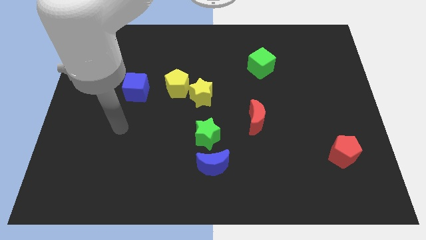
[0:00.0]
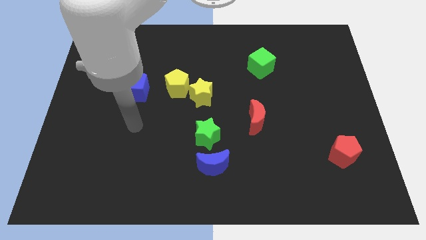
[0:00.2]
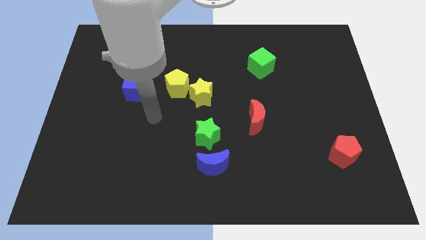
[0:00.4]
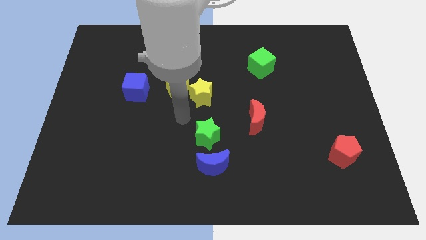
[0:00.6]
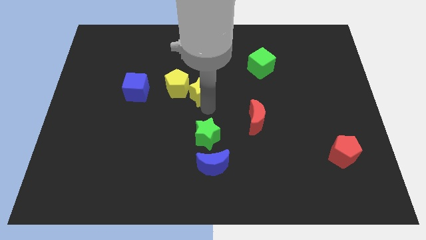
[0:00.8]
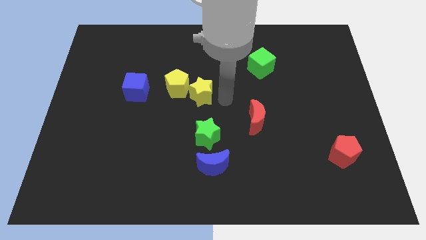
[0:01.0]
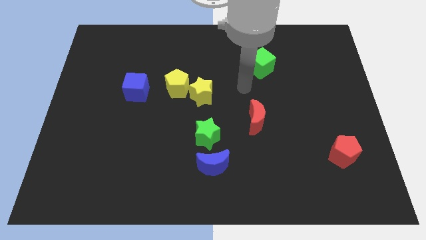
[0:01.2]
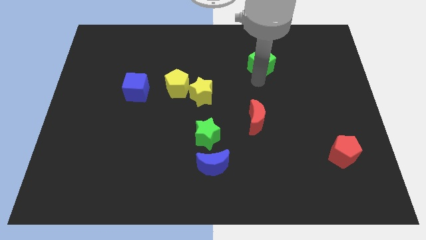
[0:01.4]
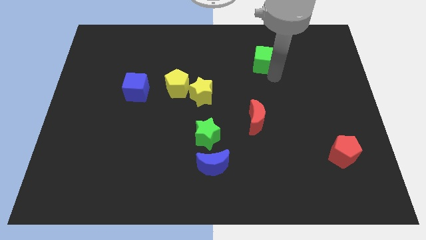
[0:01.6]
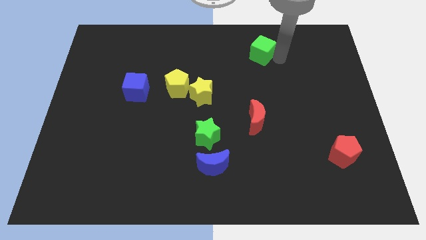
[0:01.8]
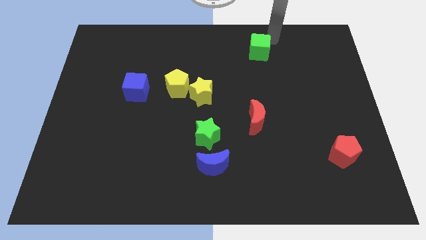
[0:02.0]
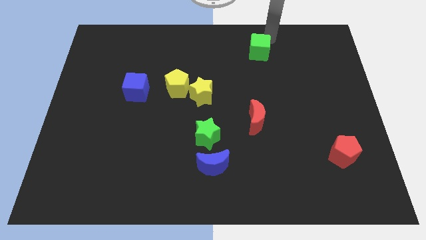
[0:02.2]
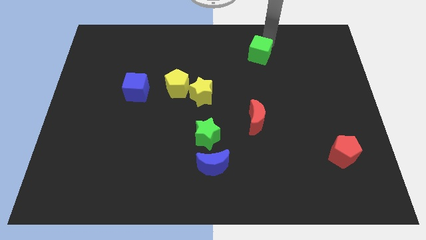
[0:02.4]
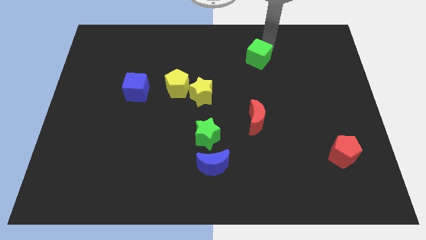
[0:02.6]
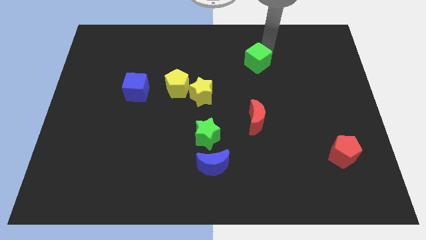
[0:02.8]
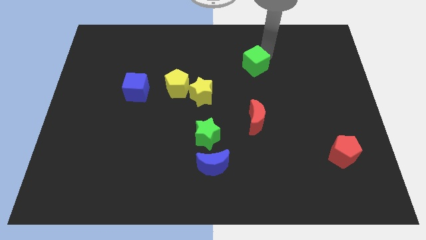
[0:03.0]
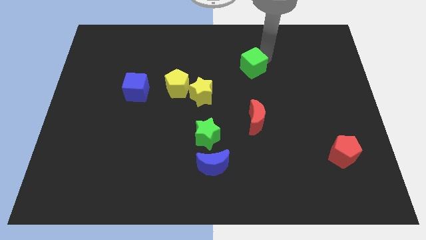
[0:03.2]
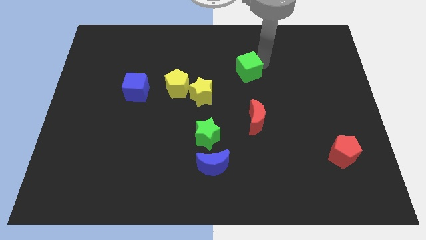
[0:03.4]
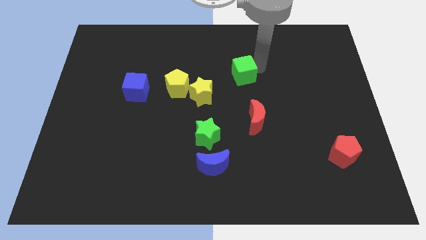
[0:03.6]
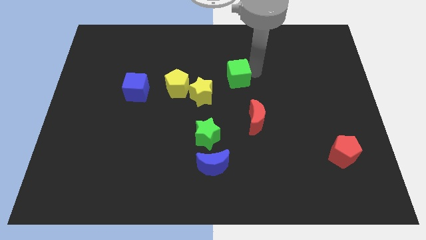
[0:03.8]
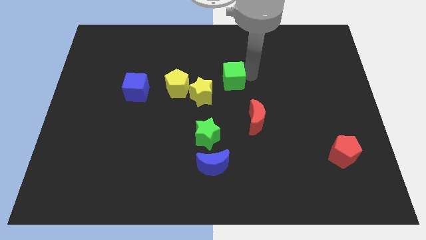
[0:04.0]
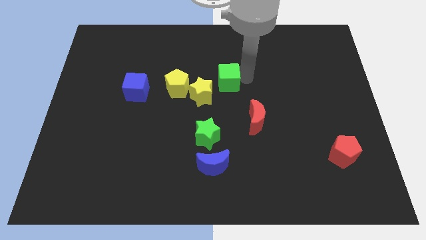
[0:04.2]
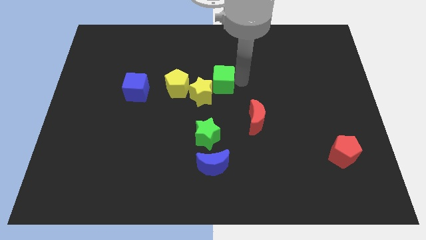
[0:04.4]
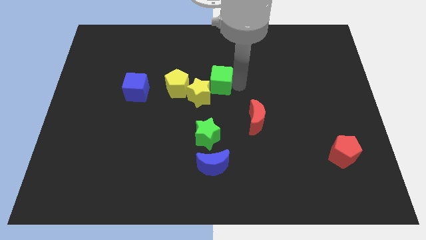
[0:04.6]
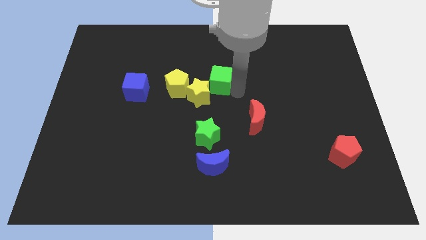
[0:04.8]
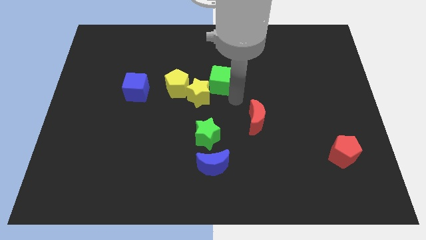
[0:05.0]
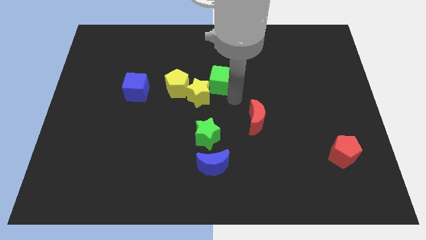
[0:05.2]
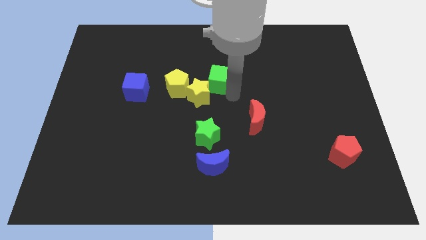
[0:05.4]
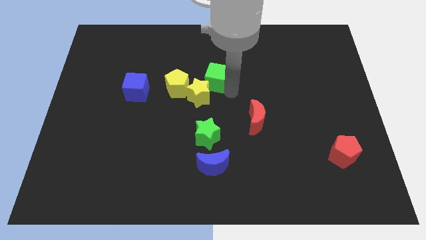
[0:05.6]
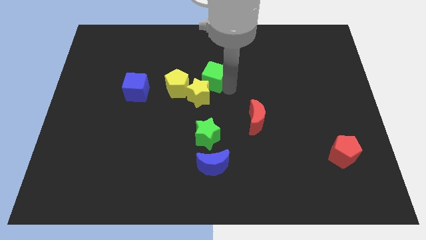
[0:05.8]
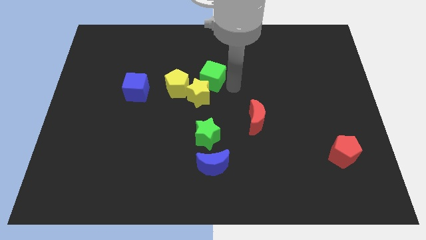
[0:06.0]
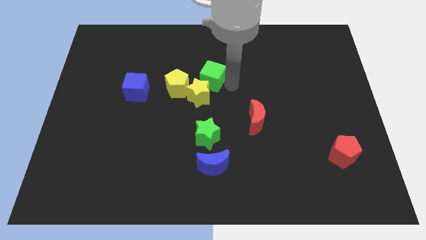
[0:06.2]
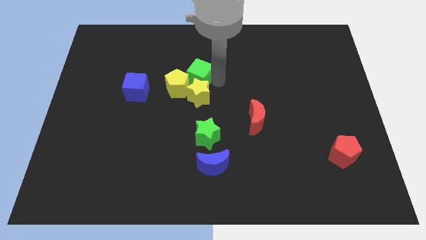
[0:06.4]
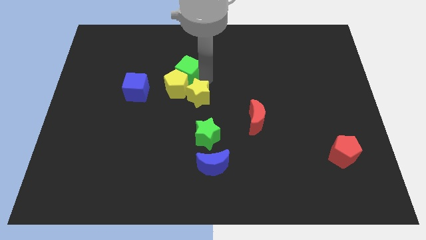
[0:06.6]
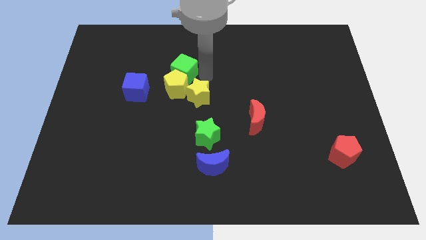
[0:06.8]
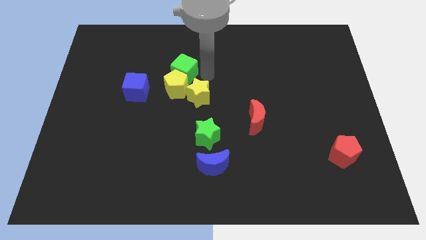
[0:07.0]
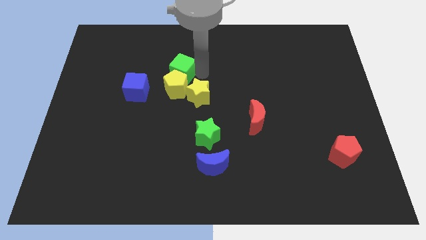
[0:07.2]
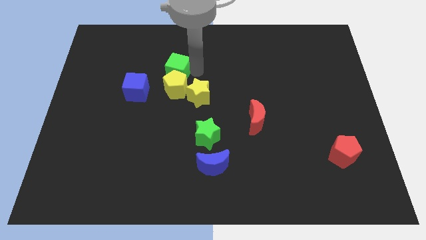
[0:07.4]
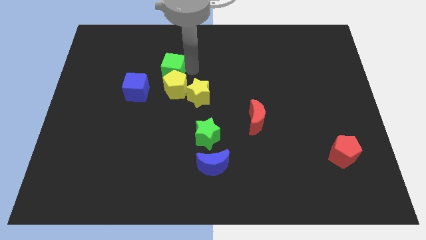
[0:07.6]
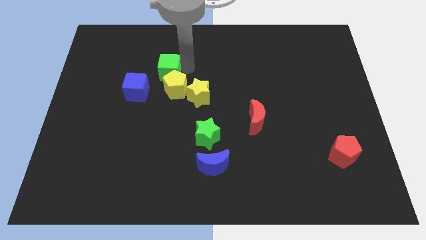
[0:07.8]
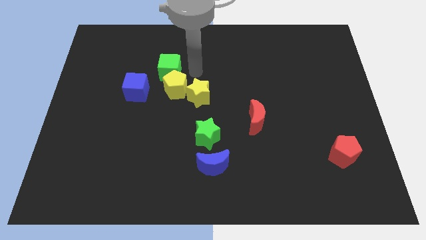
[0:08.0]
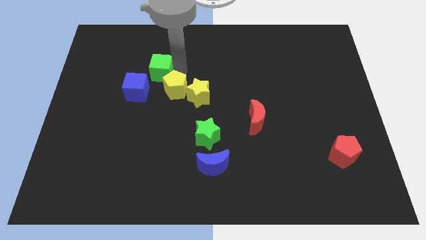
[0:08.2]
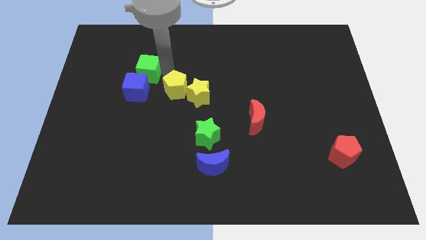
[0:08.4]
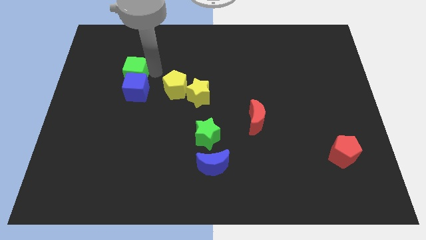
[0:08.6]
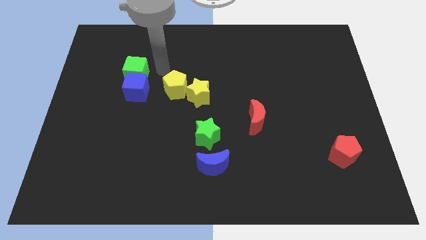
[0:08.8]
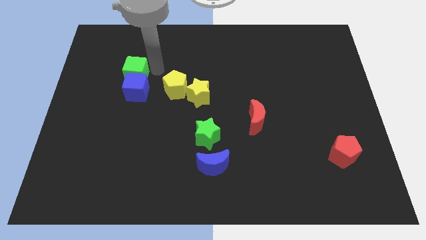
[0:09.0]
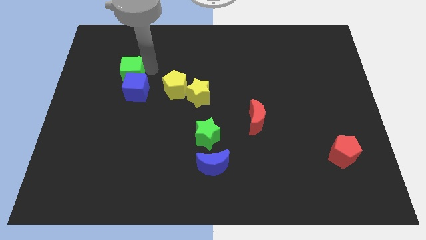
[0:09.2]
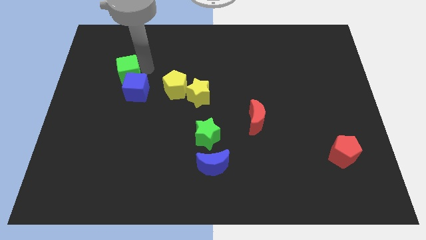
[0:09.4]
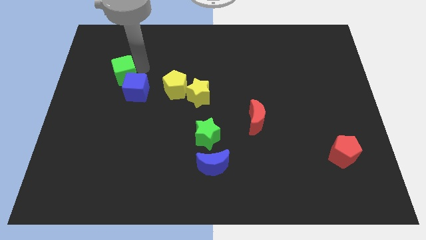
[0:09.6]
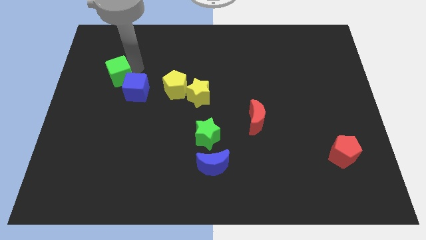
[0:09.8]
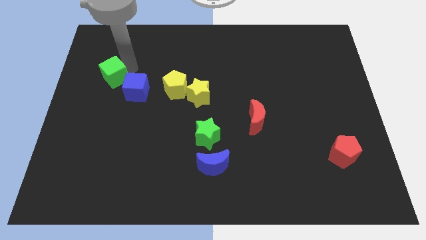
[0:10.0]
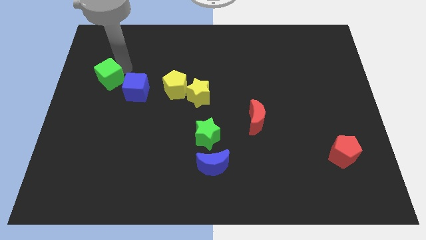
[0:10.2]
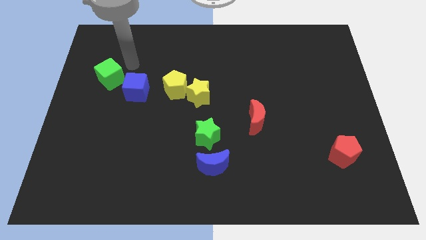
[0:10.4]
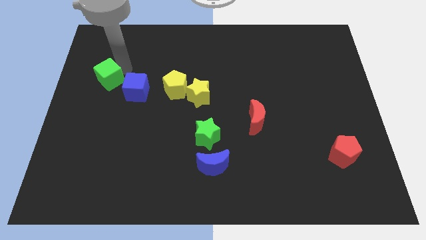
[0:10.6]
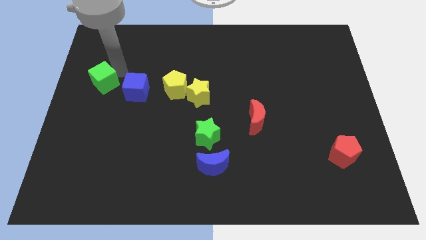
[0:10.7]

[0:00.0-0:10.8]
put the green cube to the center left

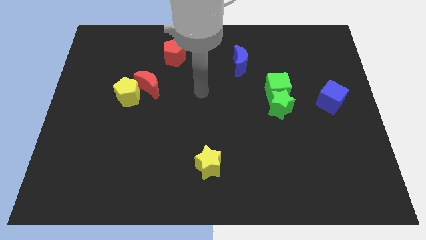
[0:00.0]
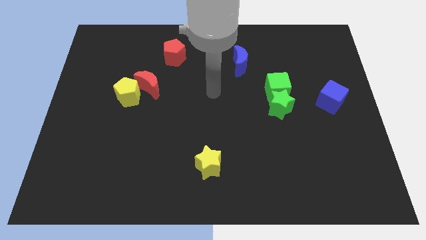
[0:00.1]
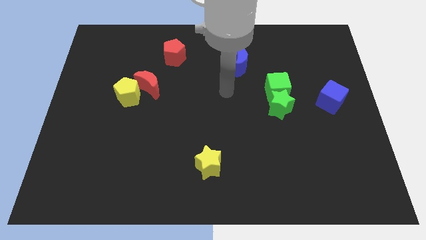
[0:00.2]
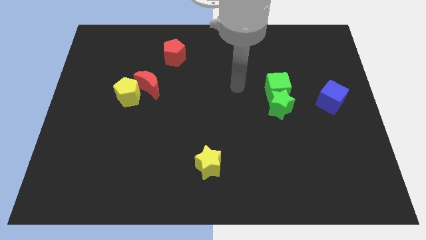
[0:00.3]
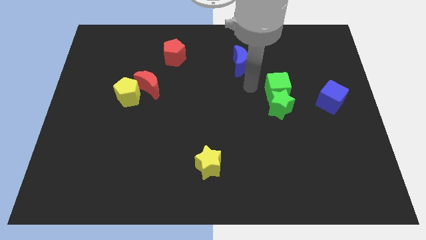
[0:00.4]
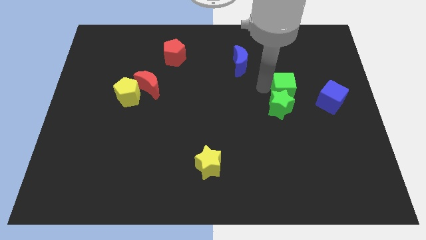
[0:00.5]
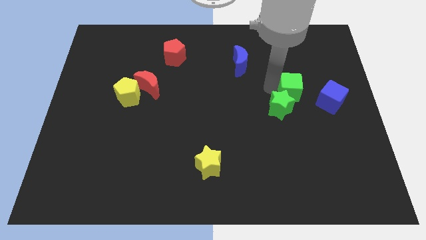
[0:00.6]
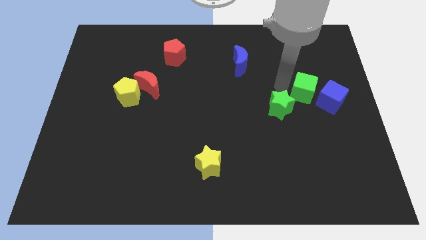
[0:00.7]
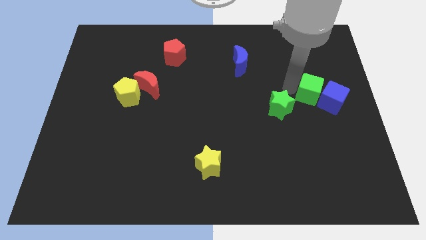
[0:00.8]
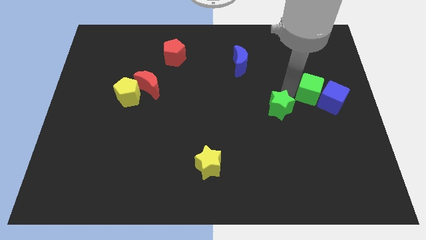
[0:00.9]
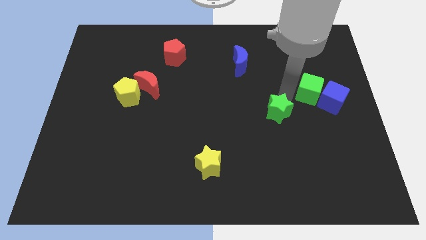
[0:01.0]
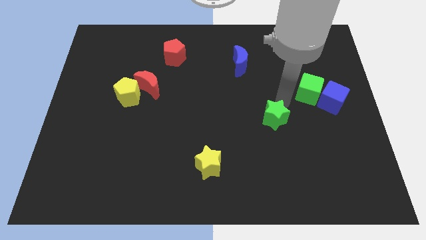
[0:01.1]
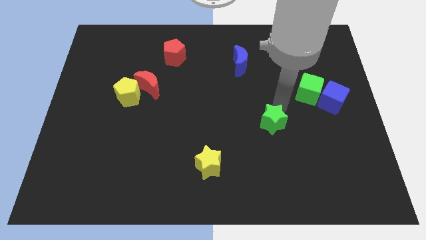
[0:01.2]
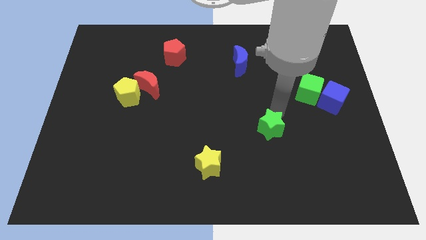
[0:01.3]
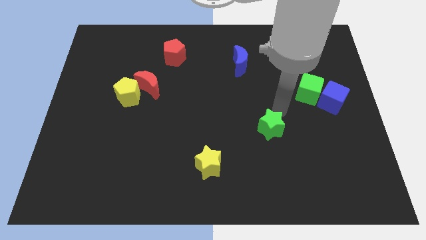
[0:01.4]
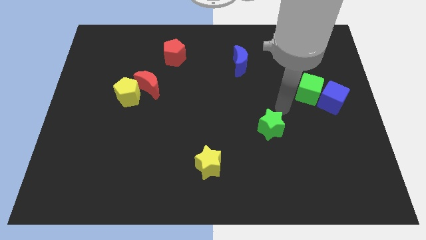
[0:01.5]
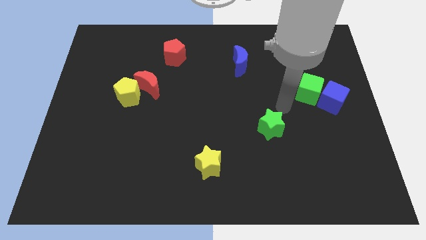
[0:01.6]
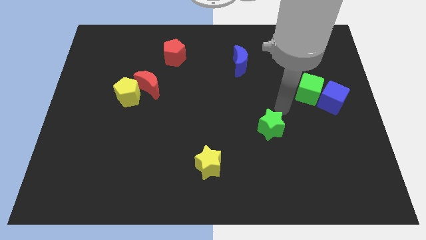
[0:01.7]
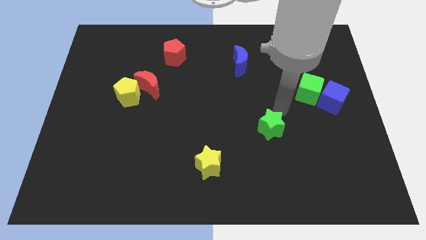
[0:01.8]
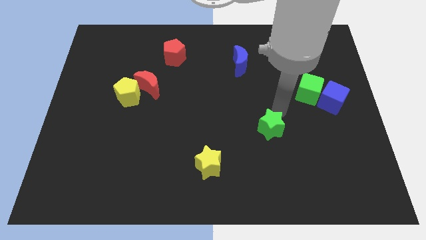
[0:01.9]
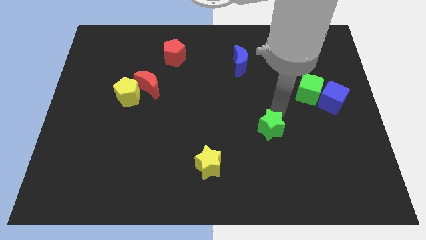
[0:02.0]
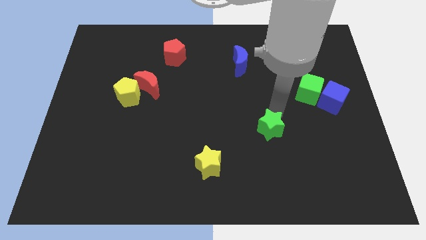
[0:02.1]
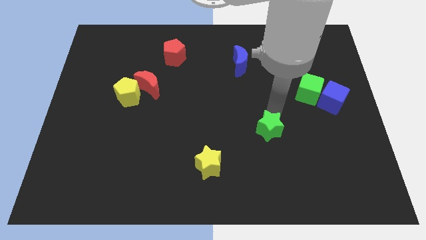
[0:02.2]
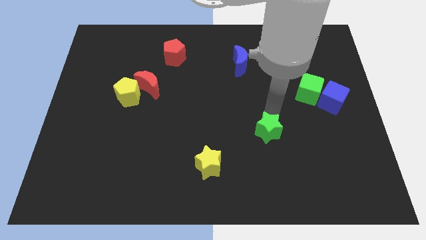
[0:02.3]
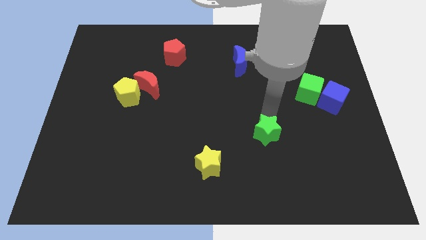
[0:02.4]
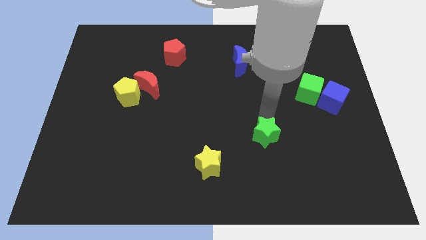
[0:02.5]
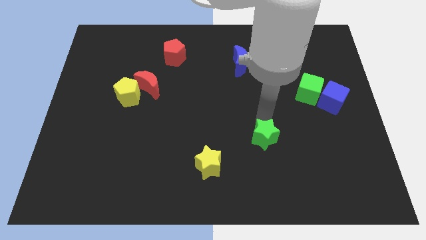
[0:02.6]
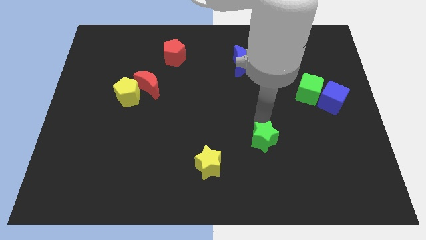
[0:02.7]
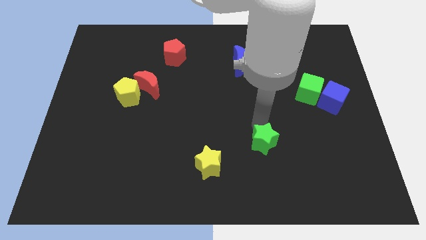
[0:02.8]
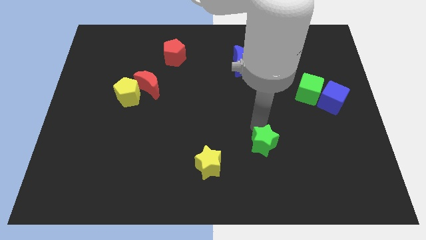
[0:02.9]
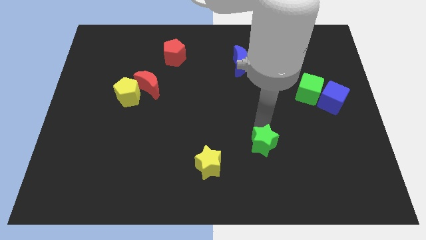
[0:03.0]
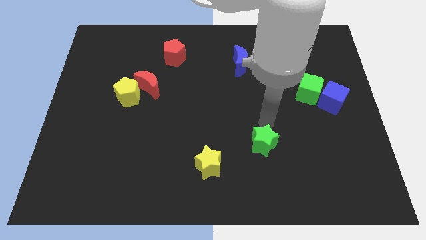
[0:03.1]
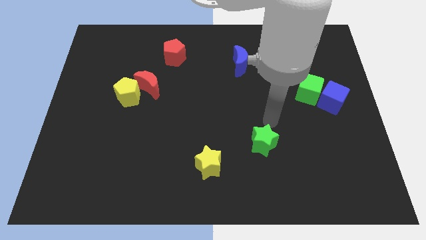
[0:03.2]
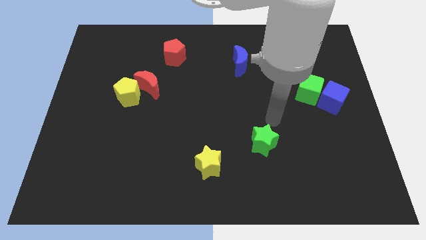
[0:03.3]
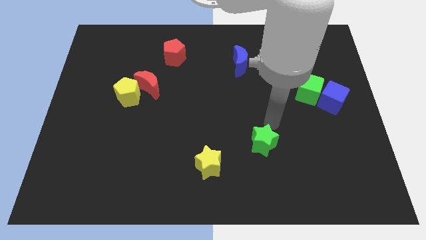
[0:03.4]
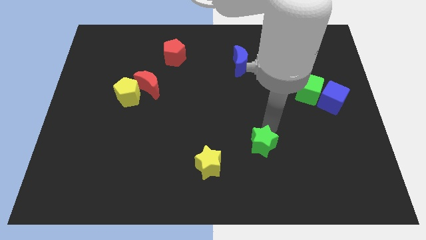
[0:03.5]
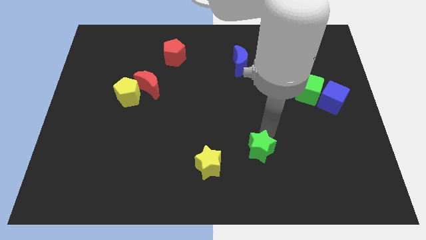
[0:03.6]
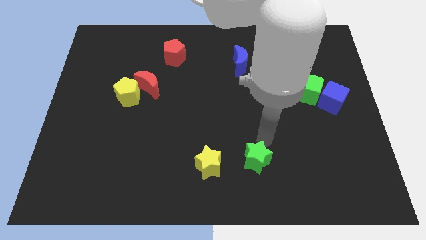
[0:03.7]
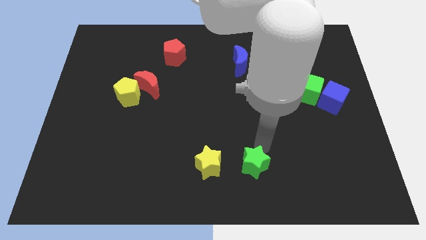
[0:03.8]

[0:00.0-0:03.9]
push the green star to the bottom side
